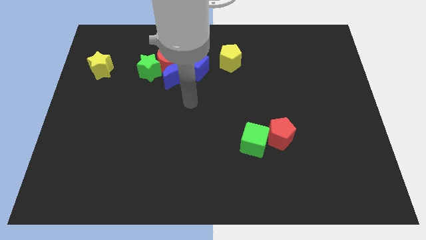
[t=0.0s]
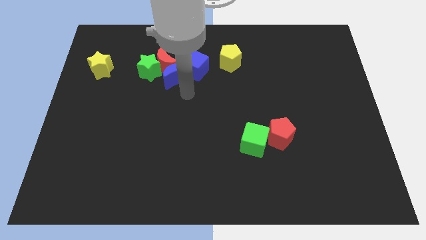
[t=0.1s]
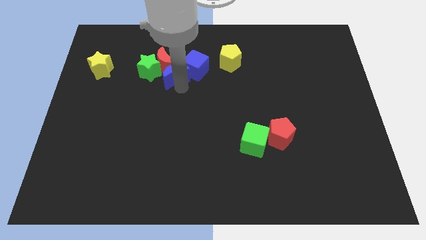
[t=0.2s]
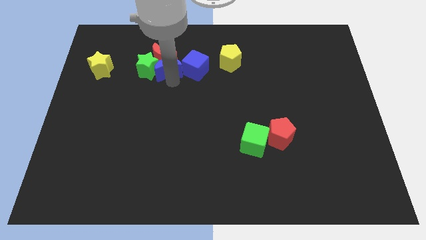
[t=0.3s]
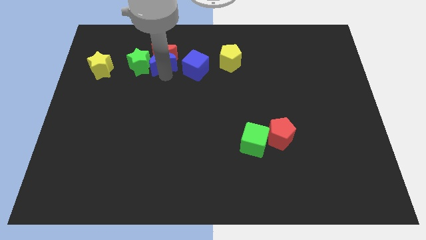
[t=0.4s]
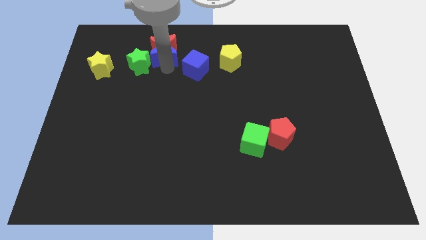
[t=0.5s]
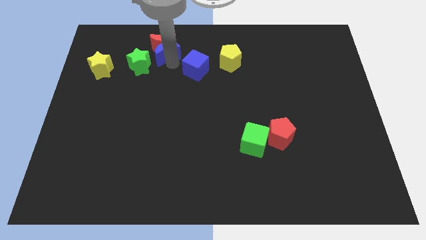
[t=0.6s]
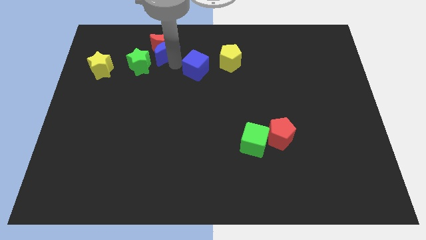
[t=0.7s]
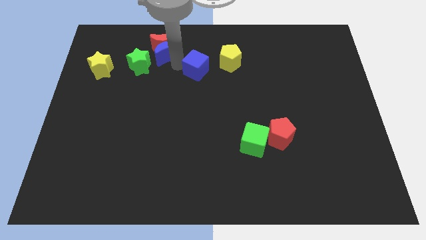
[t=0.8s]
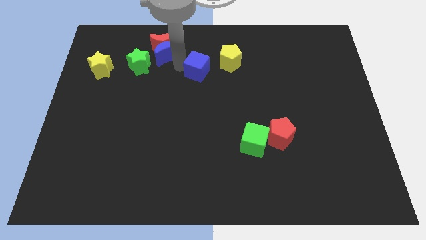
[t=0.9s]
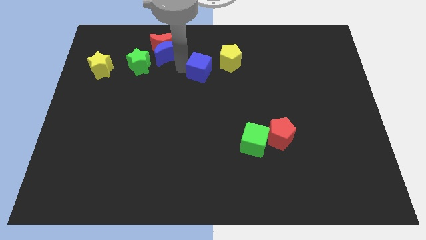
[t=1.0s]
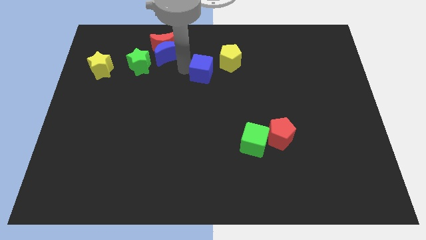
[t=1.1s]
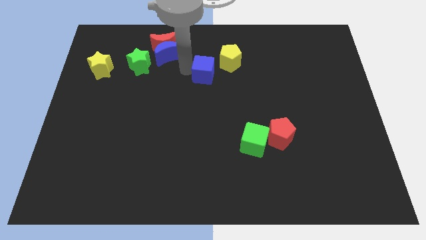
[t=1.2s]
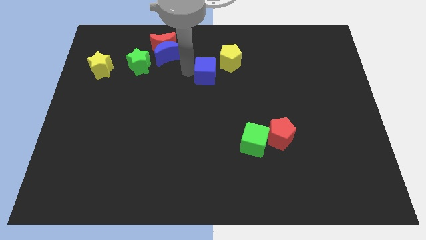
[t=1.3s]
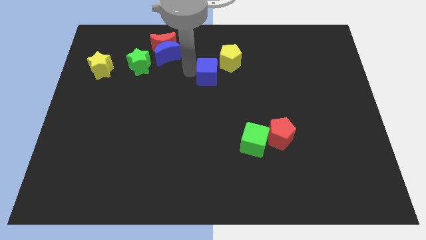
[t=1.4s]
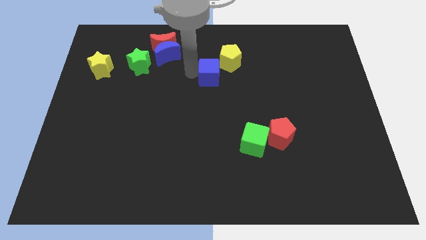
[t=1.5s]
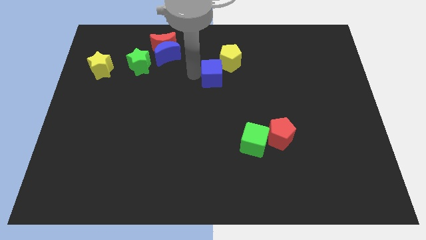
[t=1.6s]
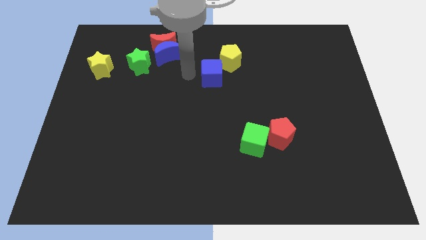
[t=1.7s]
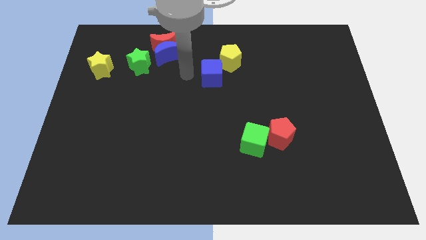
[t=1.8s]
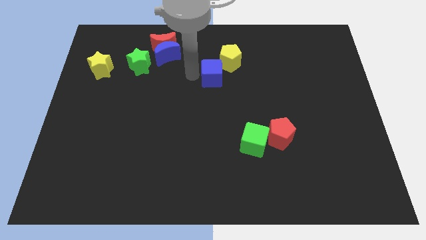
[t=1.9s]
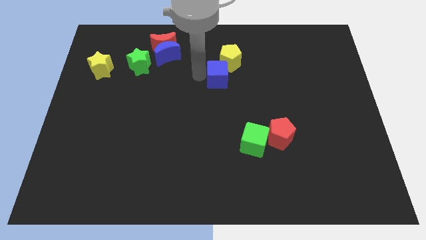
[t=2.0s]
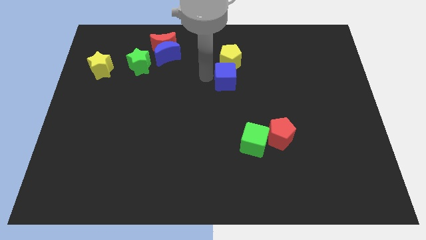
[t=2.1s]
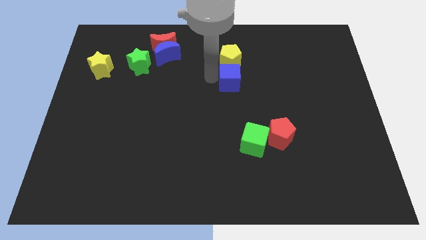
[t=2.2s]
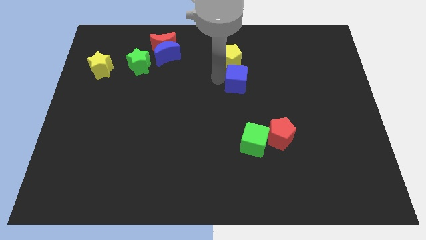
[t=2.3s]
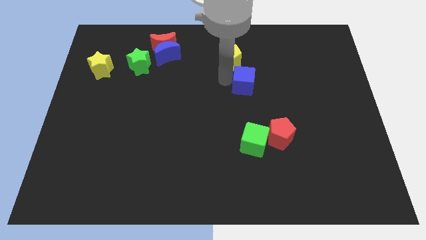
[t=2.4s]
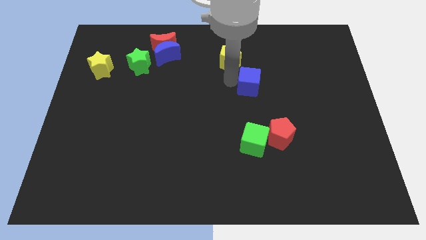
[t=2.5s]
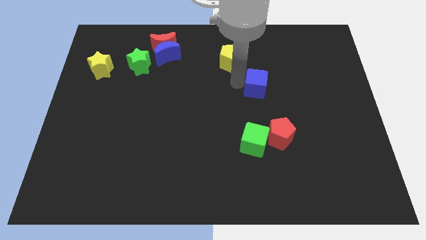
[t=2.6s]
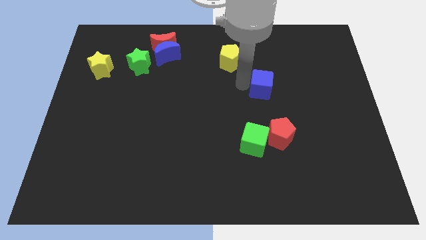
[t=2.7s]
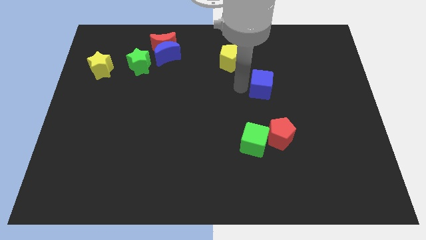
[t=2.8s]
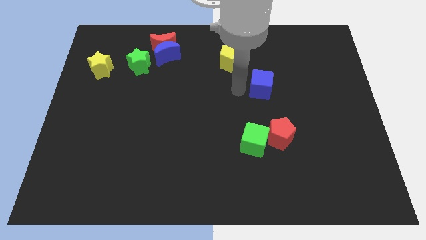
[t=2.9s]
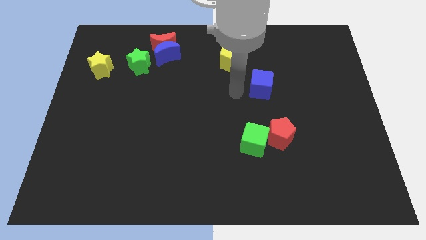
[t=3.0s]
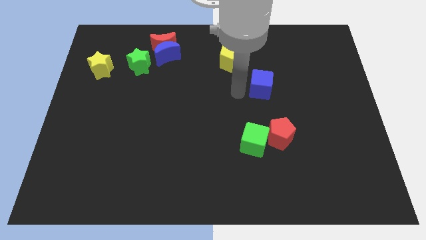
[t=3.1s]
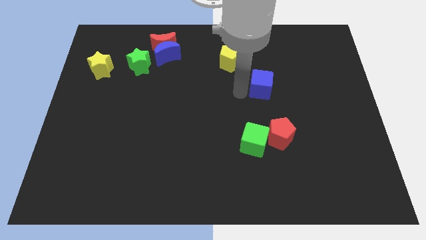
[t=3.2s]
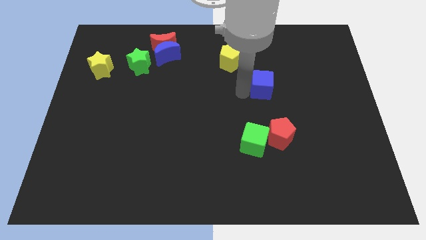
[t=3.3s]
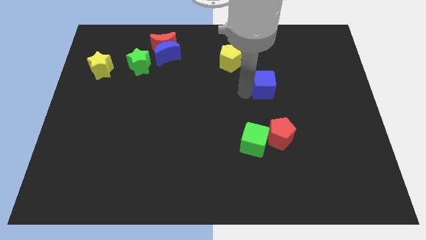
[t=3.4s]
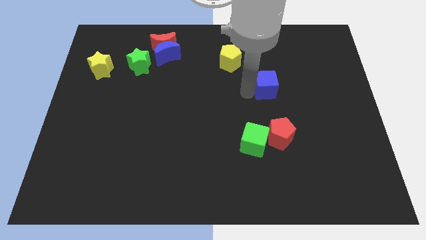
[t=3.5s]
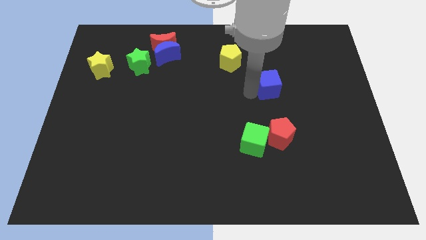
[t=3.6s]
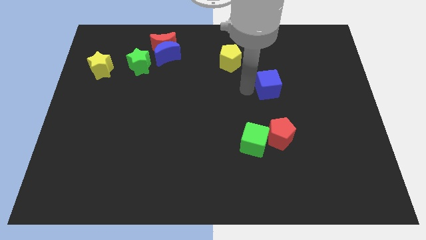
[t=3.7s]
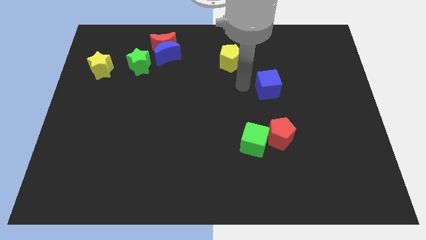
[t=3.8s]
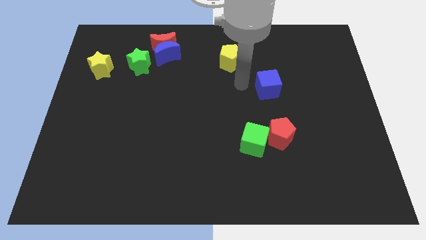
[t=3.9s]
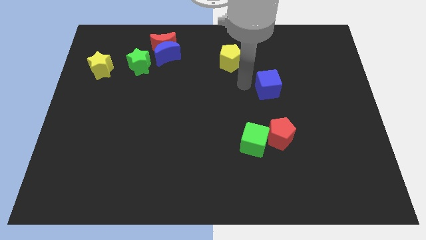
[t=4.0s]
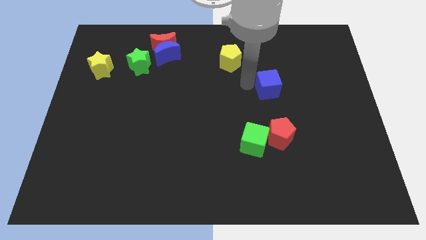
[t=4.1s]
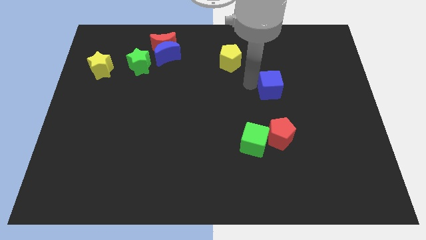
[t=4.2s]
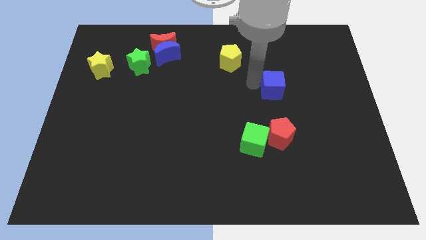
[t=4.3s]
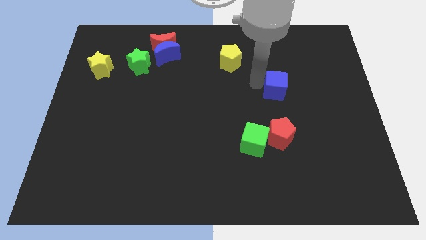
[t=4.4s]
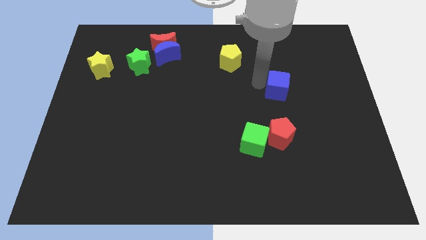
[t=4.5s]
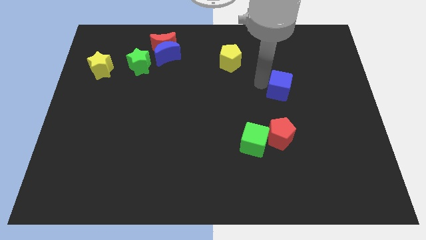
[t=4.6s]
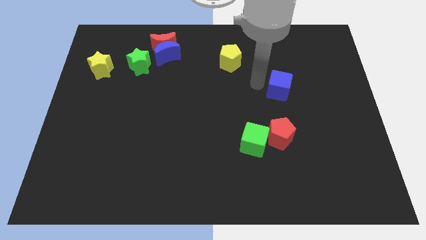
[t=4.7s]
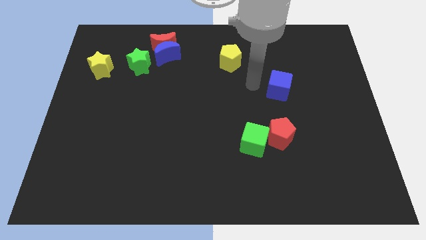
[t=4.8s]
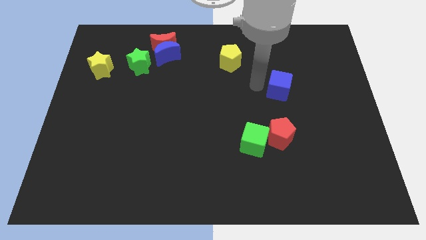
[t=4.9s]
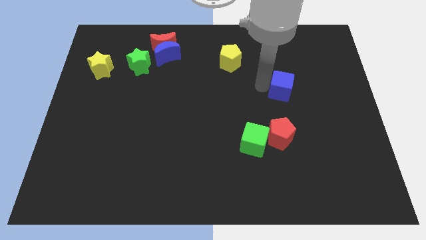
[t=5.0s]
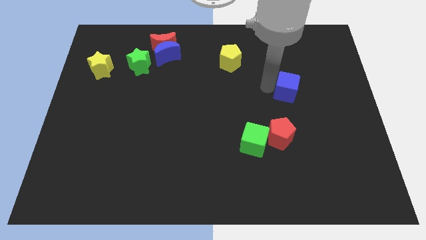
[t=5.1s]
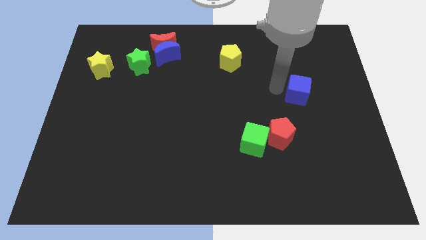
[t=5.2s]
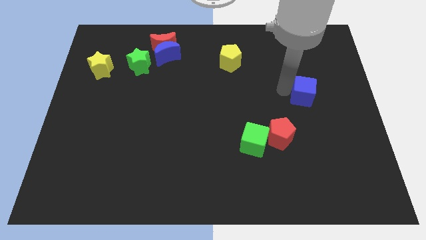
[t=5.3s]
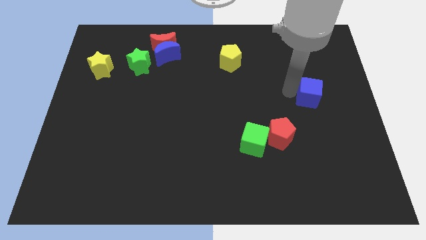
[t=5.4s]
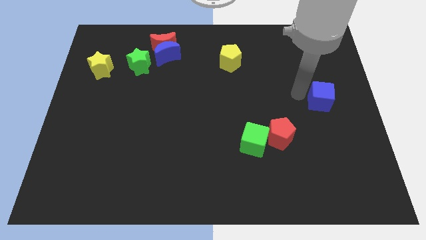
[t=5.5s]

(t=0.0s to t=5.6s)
push the blue cube to the right side

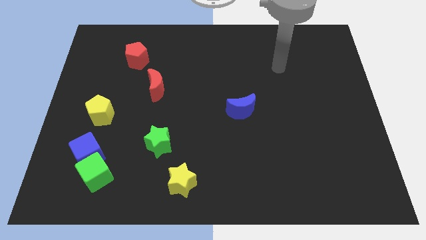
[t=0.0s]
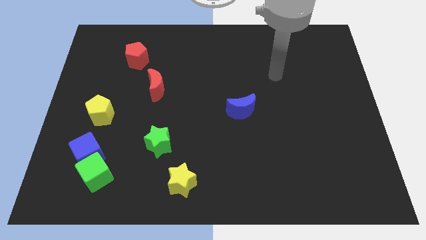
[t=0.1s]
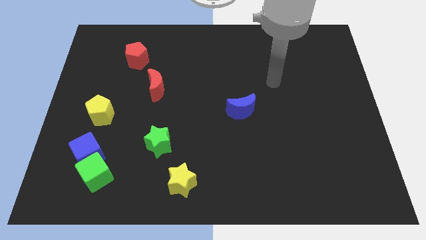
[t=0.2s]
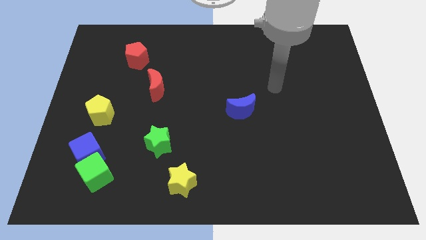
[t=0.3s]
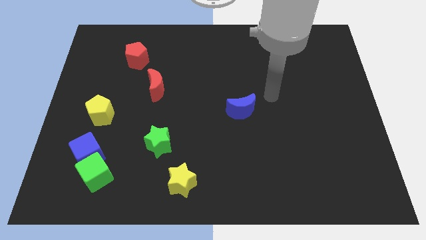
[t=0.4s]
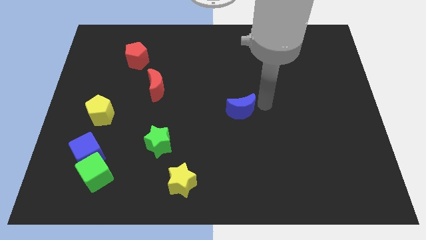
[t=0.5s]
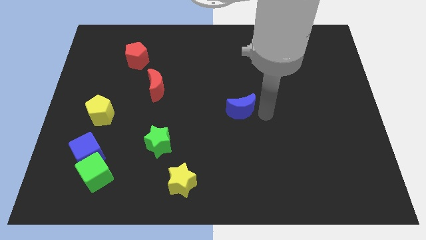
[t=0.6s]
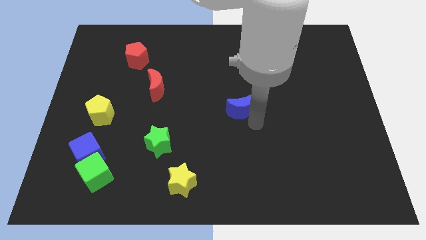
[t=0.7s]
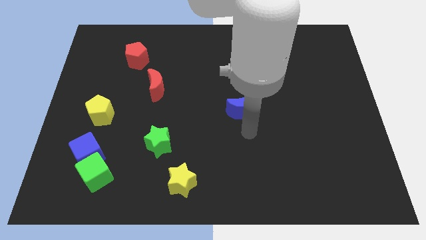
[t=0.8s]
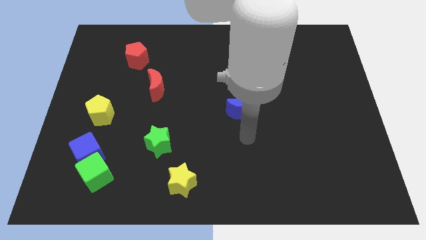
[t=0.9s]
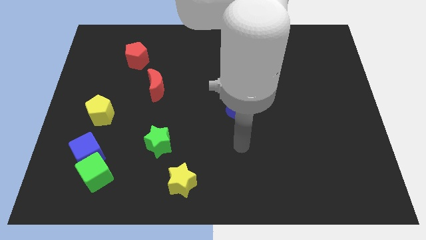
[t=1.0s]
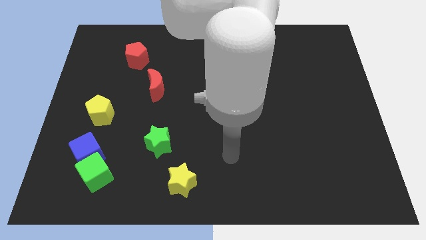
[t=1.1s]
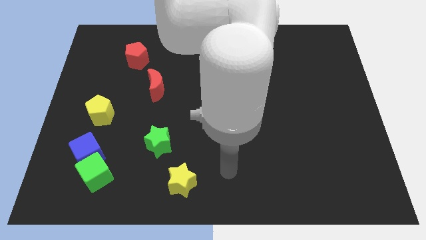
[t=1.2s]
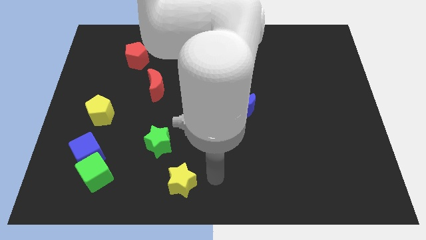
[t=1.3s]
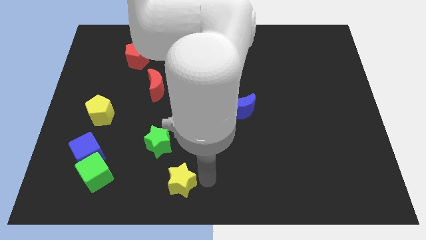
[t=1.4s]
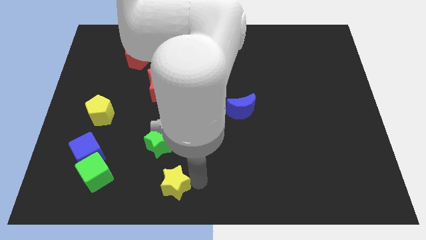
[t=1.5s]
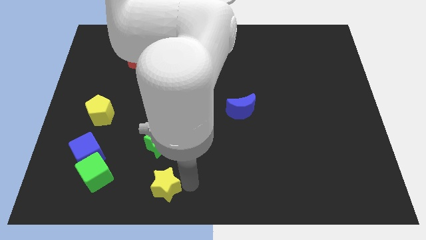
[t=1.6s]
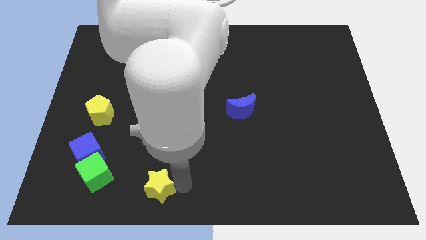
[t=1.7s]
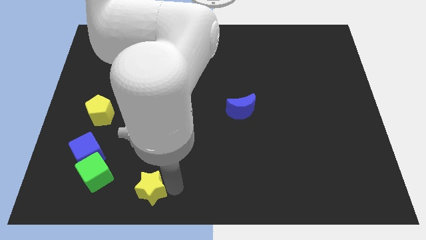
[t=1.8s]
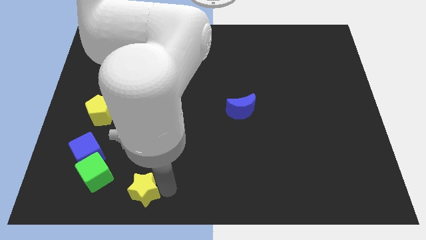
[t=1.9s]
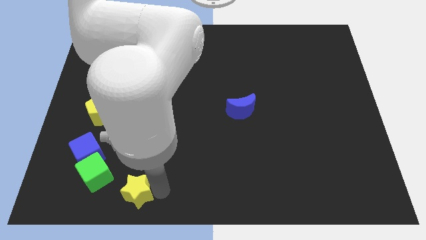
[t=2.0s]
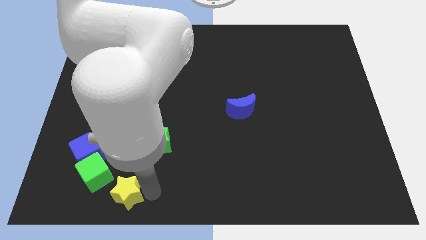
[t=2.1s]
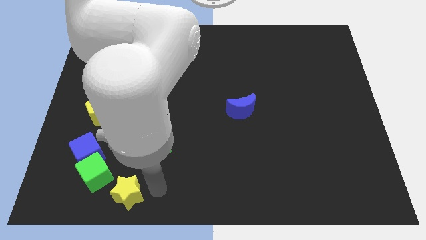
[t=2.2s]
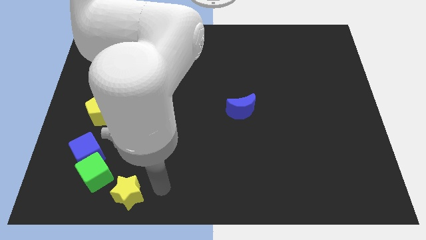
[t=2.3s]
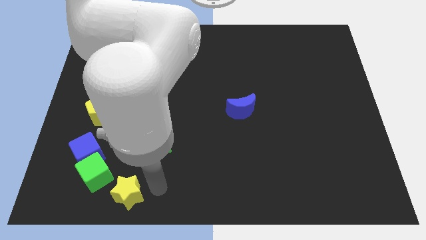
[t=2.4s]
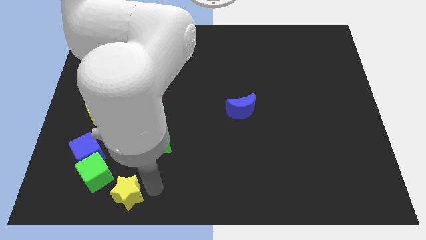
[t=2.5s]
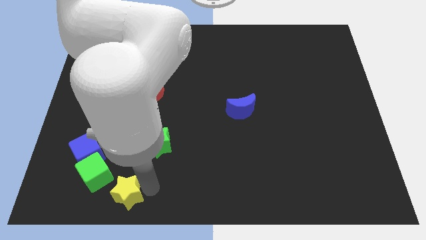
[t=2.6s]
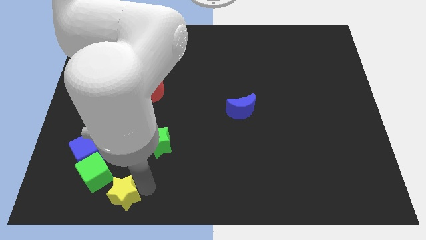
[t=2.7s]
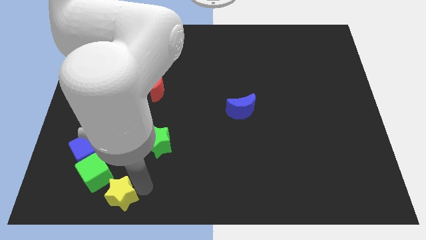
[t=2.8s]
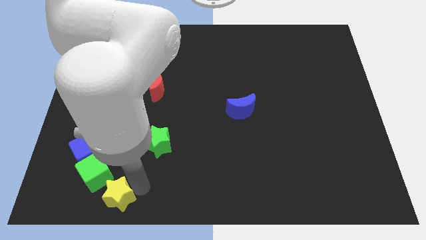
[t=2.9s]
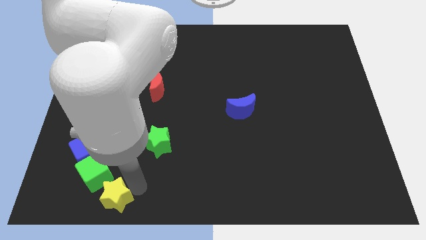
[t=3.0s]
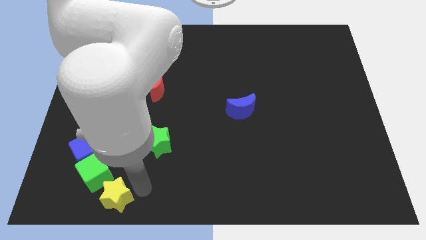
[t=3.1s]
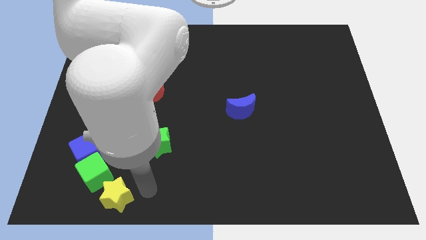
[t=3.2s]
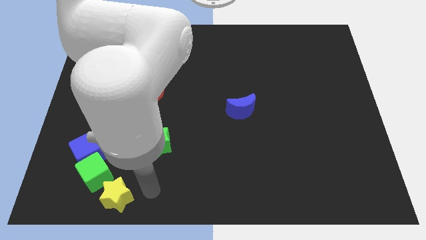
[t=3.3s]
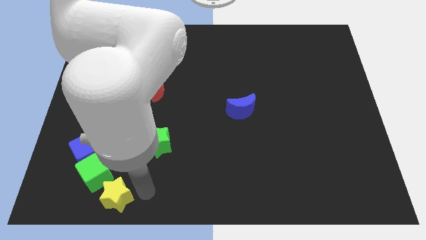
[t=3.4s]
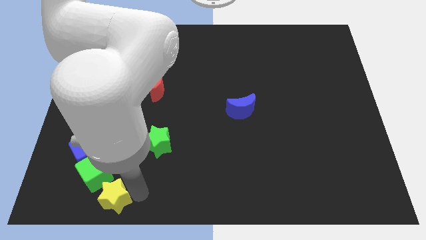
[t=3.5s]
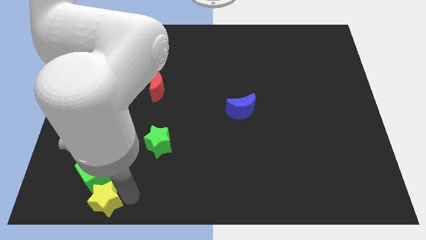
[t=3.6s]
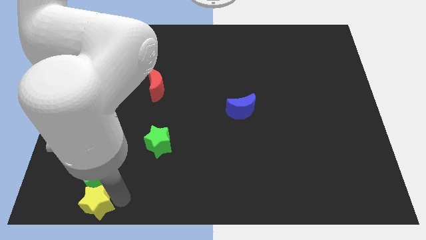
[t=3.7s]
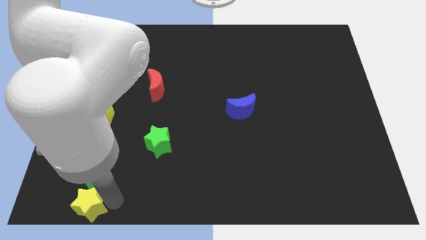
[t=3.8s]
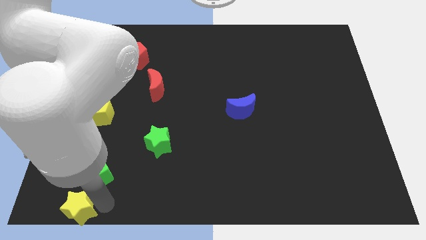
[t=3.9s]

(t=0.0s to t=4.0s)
put the yellow star to the lower left corner
